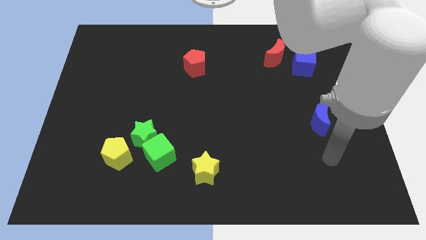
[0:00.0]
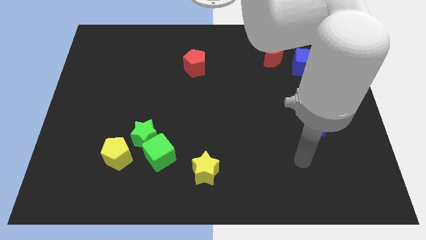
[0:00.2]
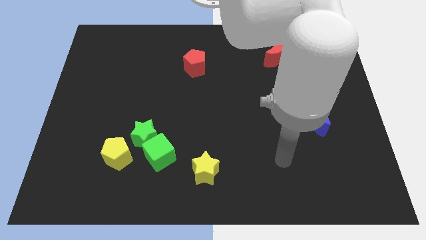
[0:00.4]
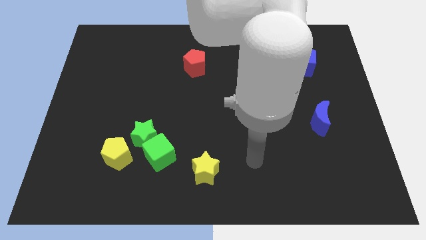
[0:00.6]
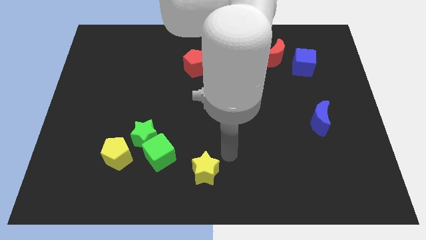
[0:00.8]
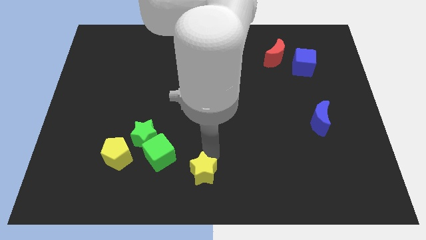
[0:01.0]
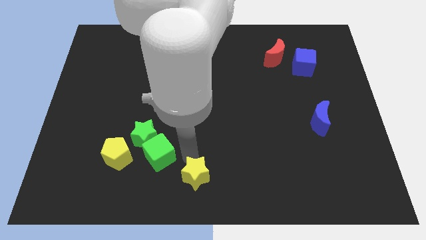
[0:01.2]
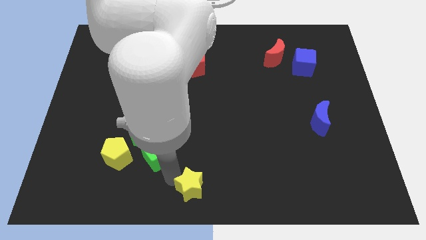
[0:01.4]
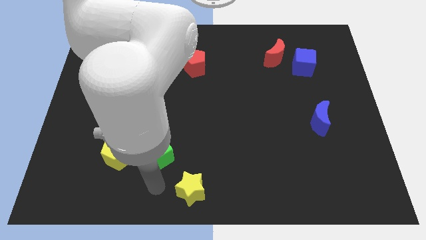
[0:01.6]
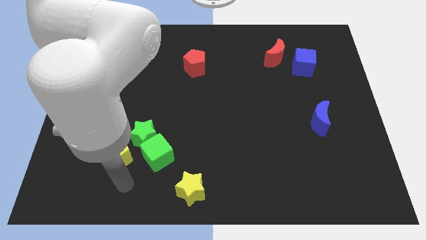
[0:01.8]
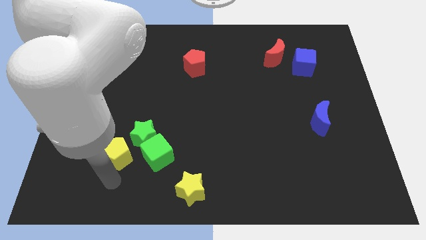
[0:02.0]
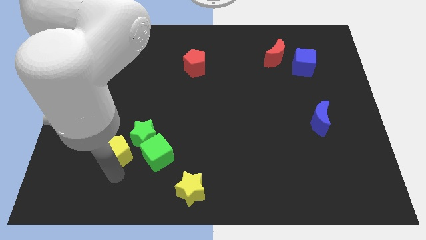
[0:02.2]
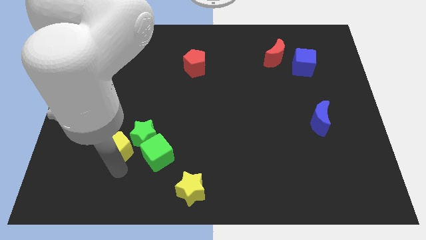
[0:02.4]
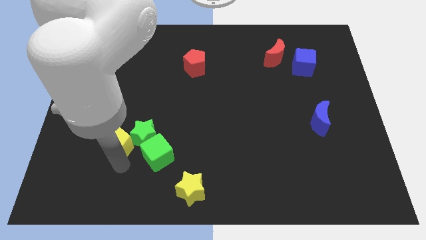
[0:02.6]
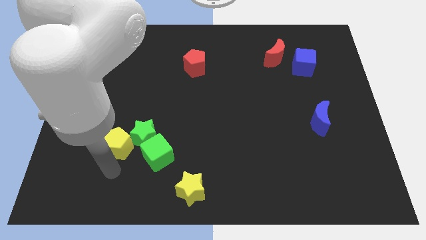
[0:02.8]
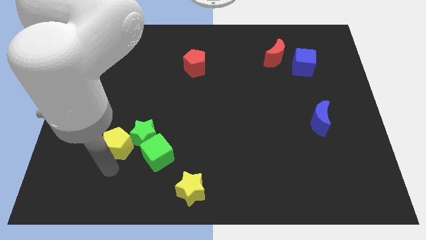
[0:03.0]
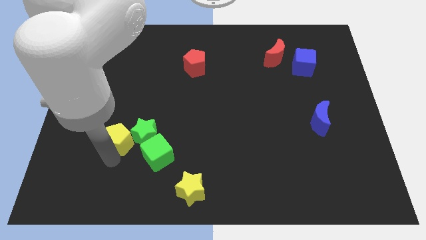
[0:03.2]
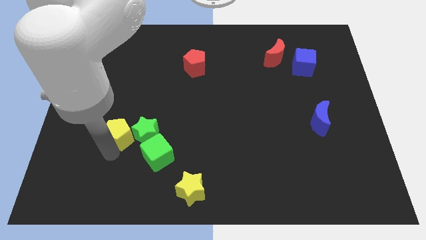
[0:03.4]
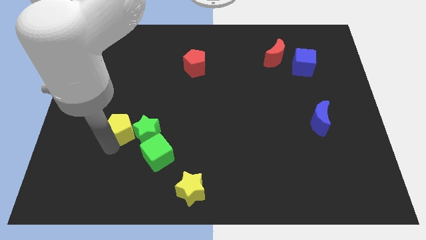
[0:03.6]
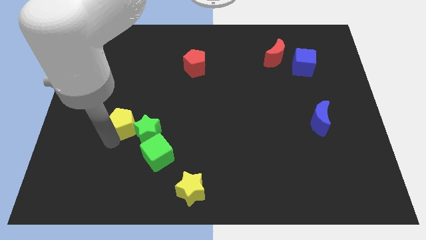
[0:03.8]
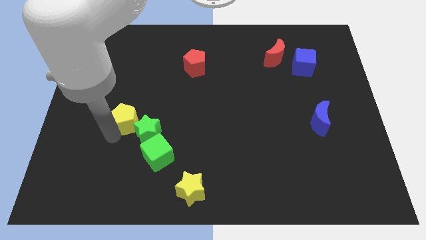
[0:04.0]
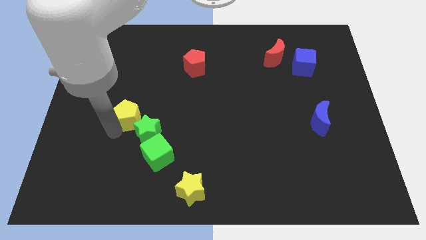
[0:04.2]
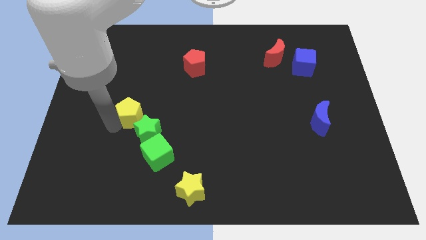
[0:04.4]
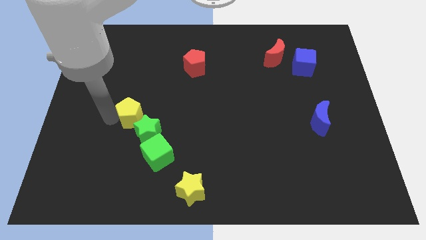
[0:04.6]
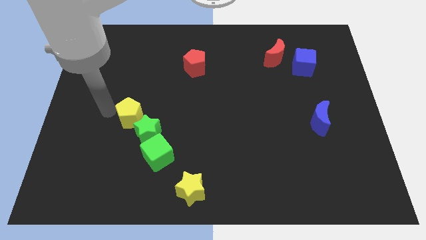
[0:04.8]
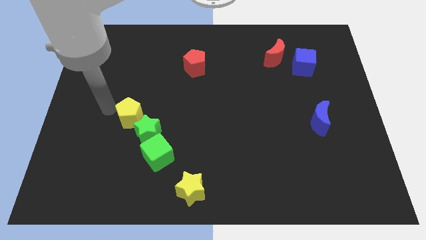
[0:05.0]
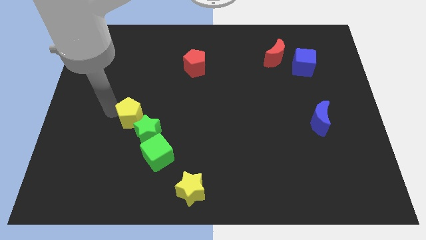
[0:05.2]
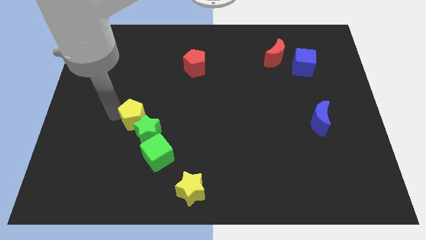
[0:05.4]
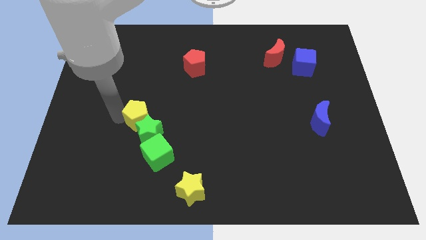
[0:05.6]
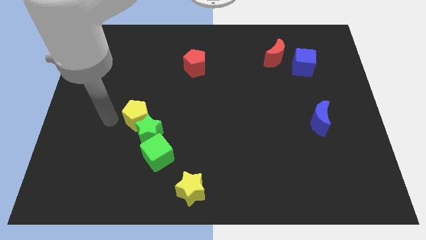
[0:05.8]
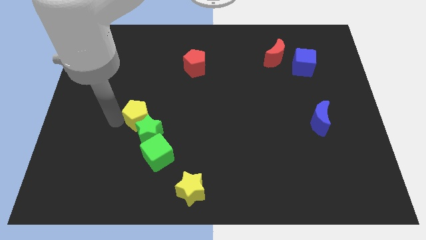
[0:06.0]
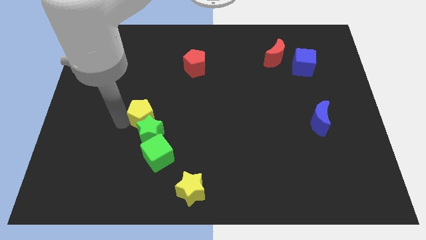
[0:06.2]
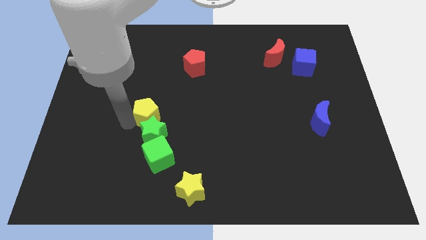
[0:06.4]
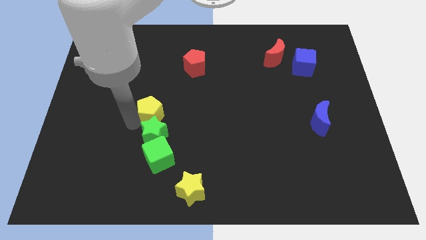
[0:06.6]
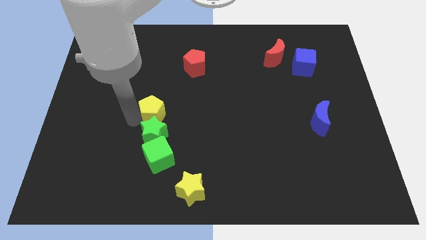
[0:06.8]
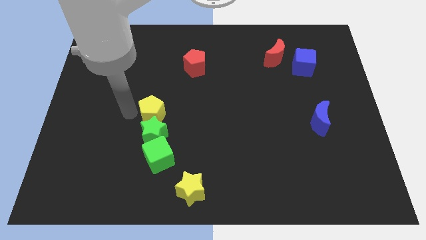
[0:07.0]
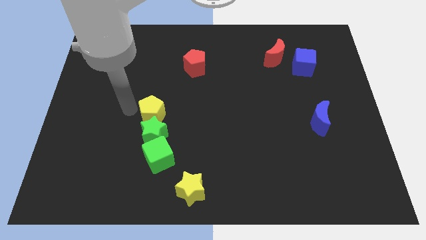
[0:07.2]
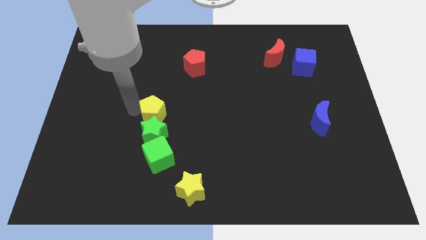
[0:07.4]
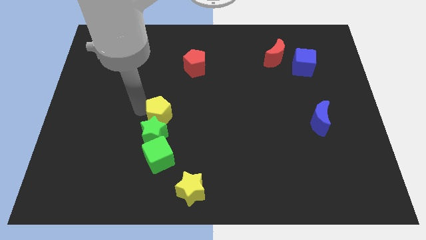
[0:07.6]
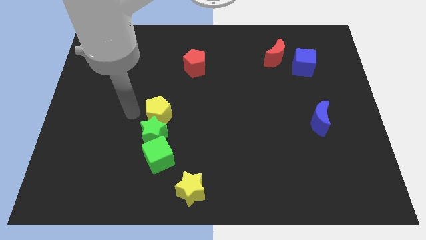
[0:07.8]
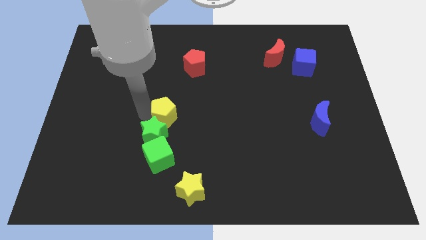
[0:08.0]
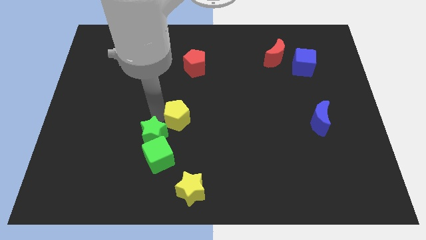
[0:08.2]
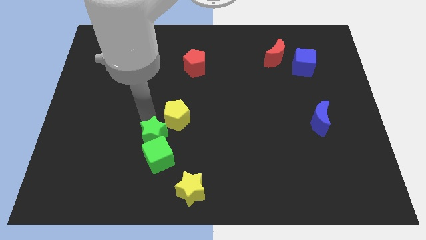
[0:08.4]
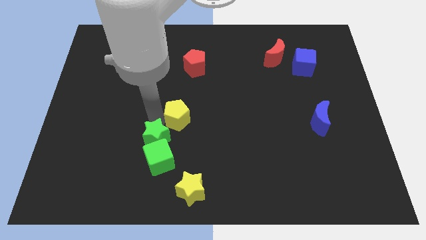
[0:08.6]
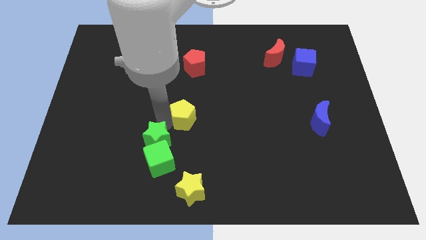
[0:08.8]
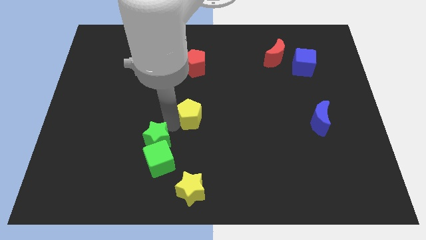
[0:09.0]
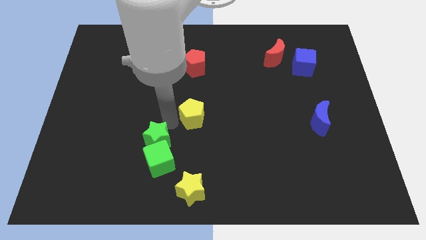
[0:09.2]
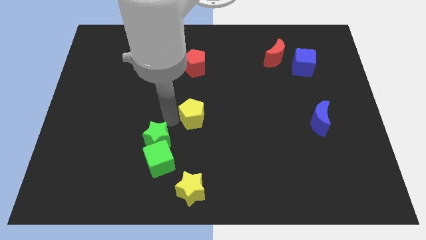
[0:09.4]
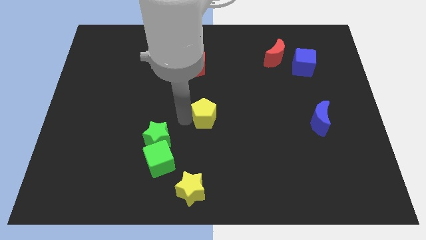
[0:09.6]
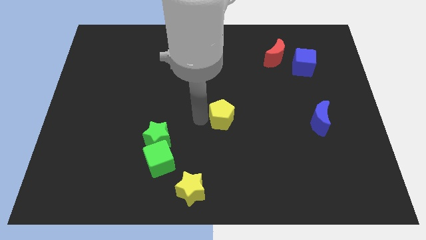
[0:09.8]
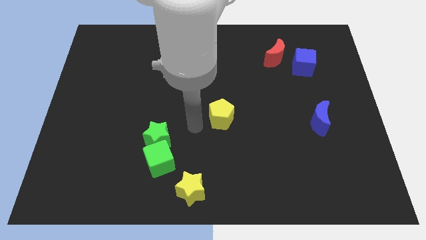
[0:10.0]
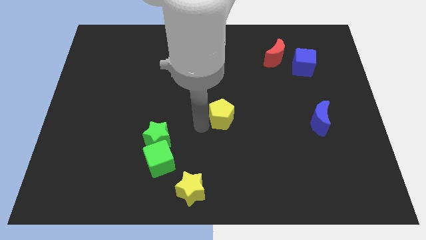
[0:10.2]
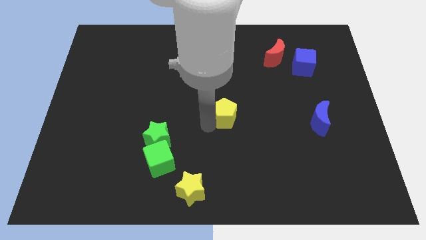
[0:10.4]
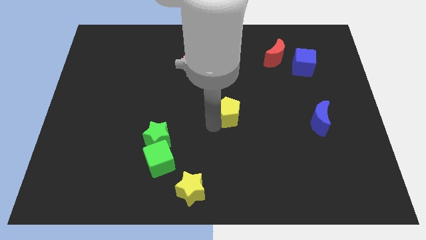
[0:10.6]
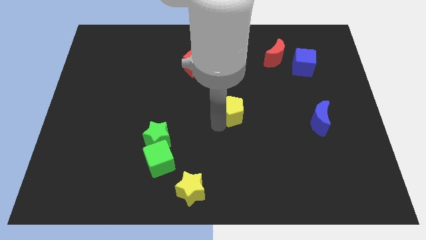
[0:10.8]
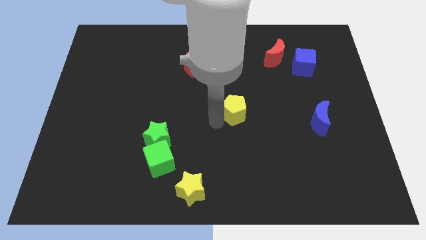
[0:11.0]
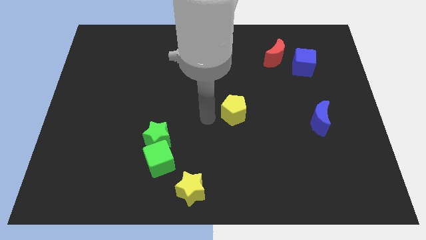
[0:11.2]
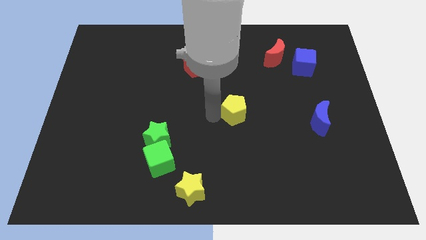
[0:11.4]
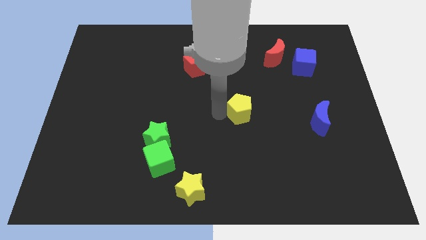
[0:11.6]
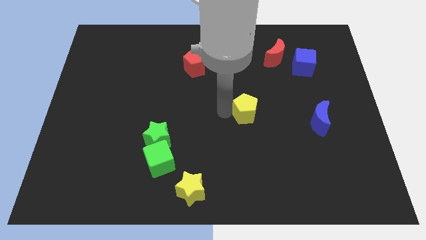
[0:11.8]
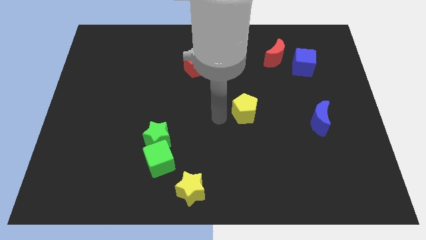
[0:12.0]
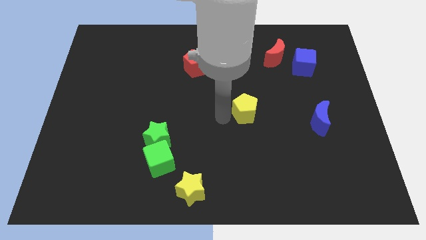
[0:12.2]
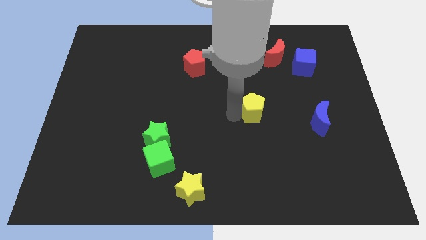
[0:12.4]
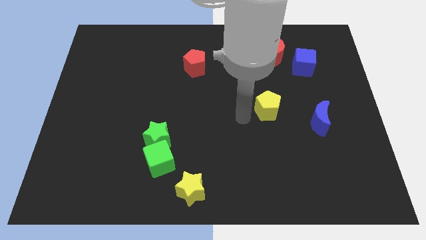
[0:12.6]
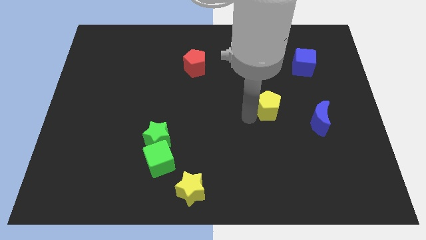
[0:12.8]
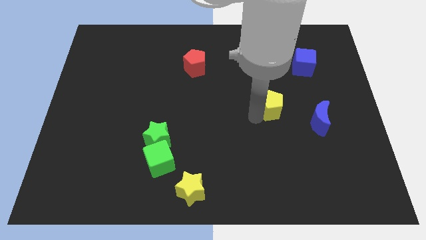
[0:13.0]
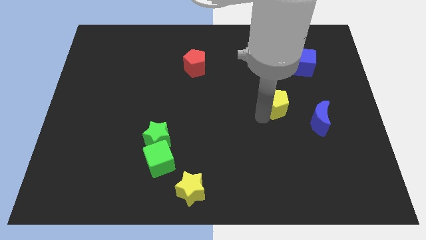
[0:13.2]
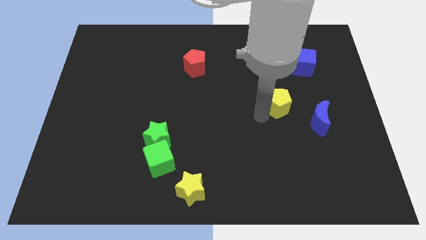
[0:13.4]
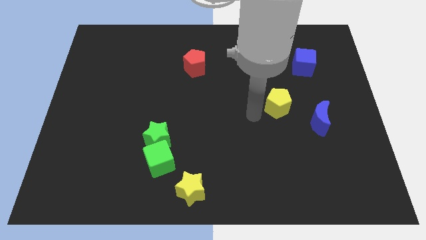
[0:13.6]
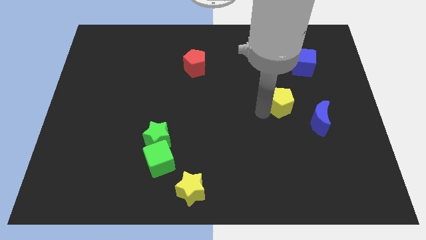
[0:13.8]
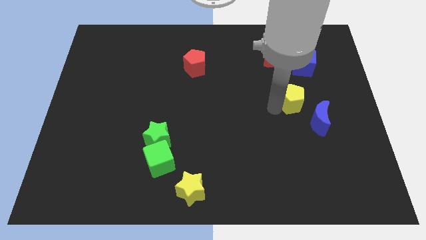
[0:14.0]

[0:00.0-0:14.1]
put the yellow pentagon to the bottom of the blue cube

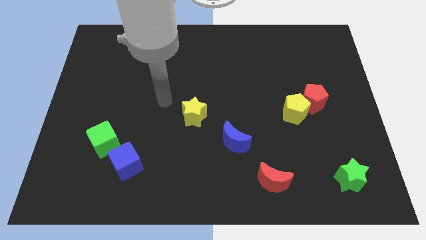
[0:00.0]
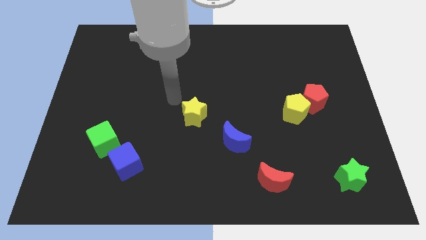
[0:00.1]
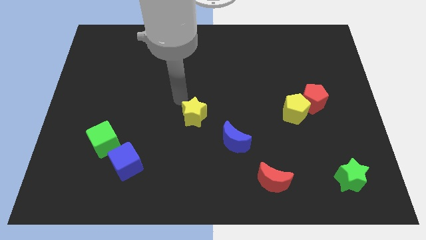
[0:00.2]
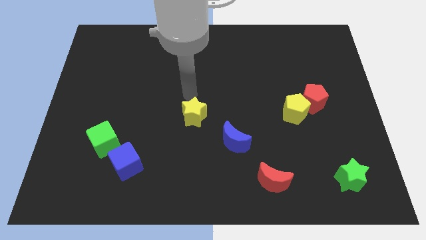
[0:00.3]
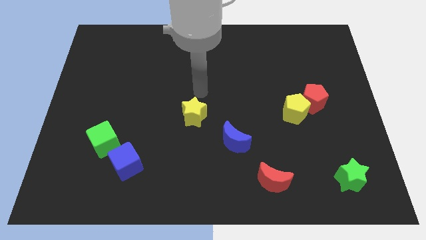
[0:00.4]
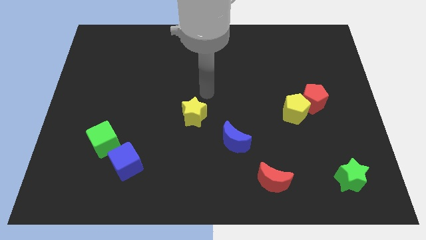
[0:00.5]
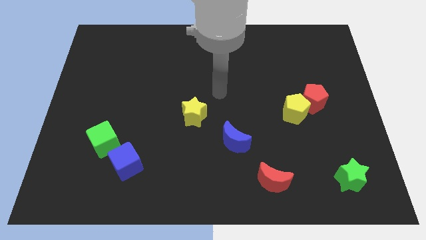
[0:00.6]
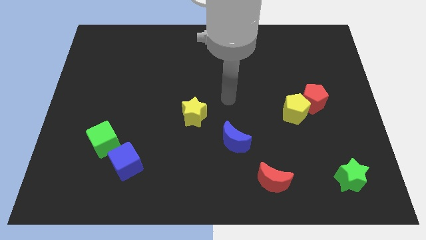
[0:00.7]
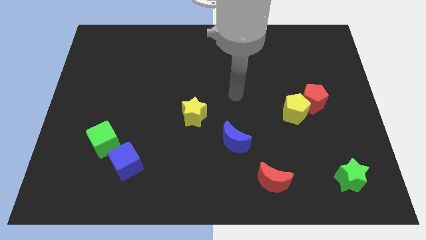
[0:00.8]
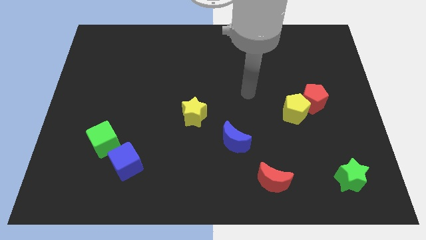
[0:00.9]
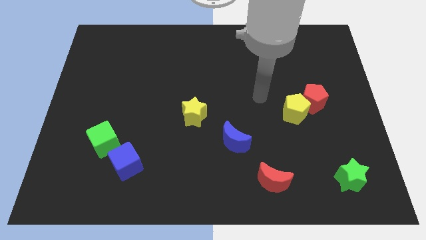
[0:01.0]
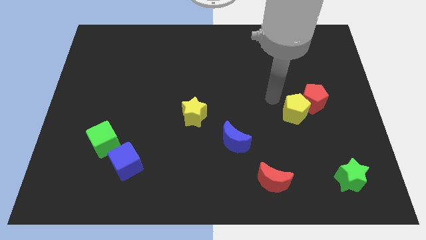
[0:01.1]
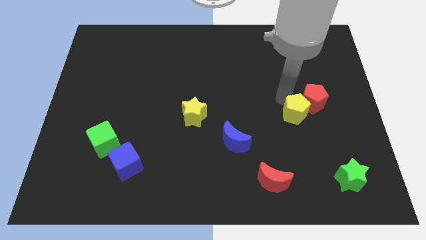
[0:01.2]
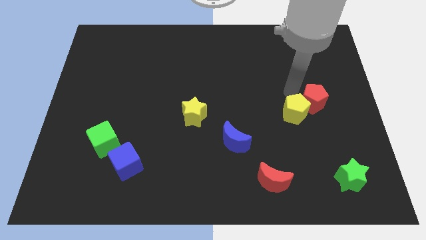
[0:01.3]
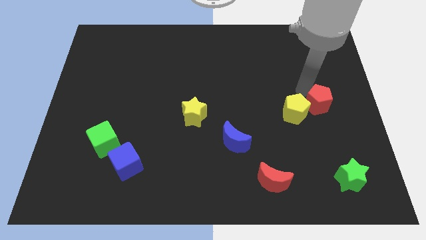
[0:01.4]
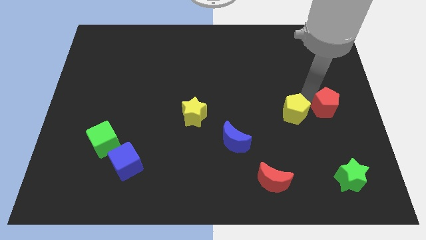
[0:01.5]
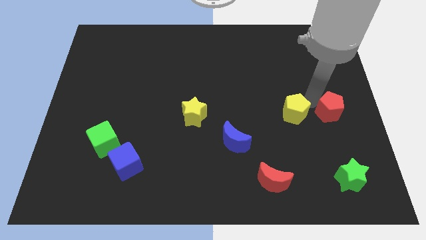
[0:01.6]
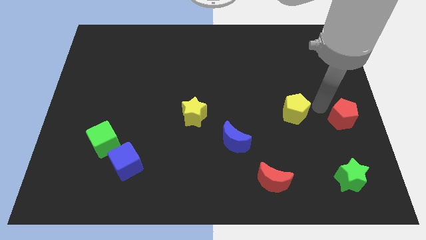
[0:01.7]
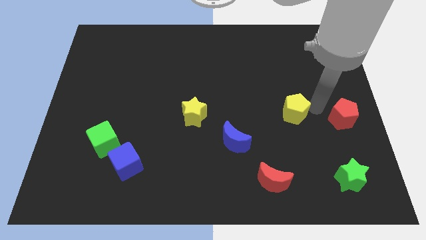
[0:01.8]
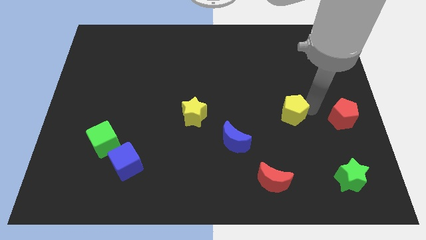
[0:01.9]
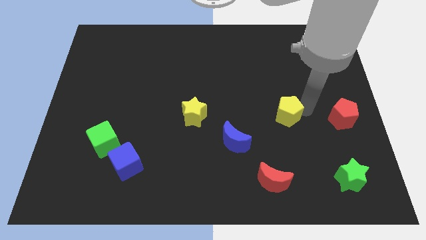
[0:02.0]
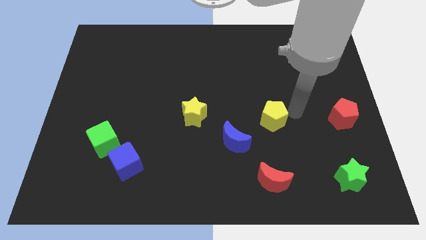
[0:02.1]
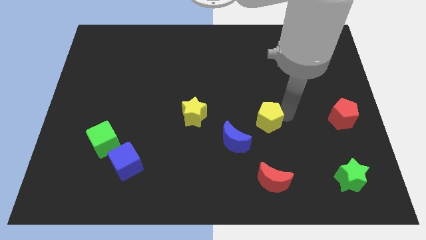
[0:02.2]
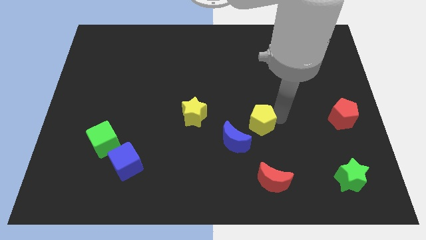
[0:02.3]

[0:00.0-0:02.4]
move the yellow pentagon right of the yellow star
